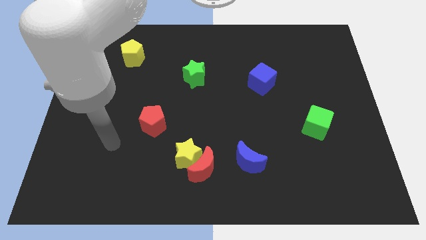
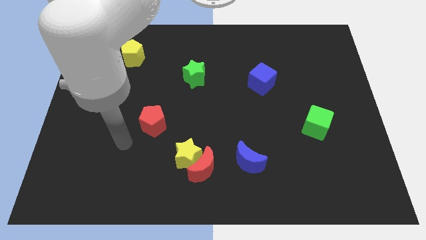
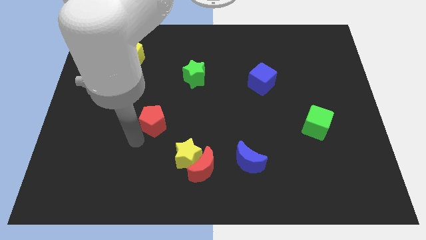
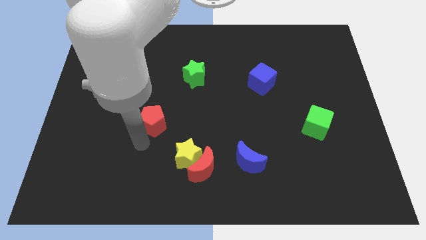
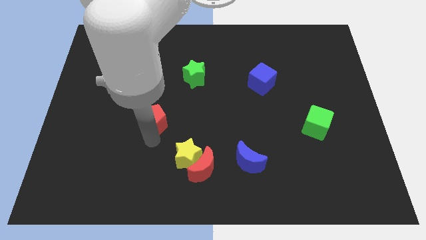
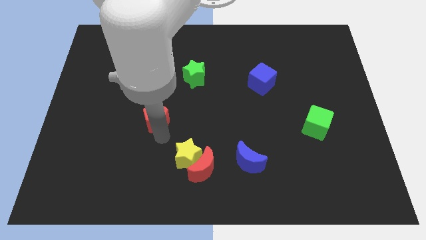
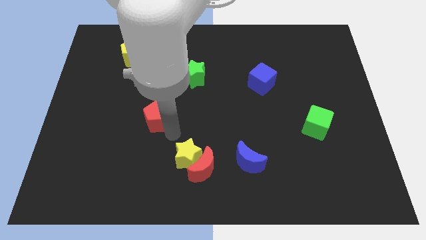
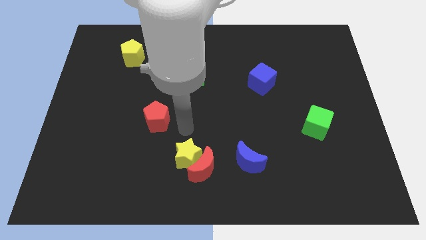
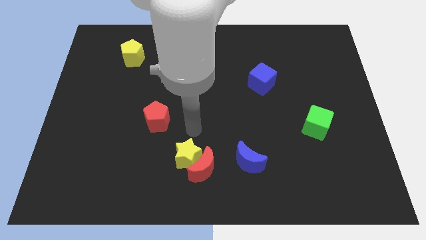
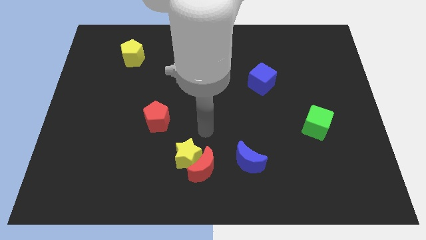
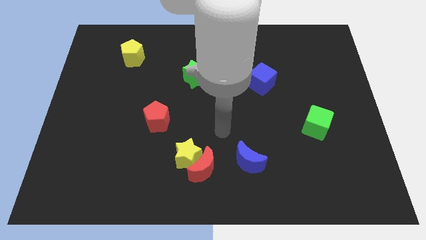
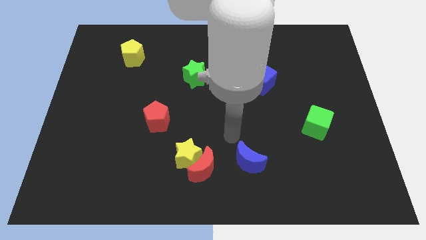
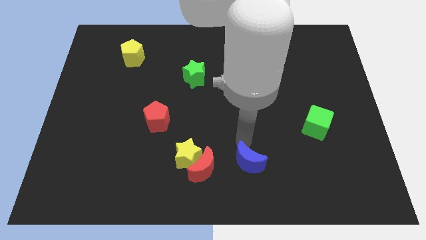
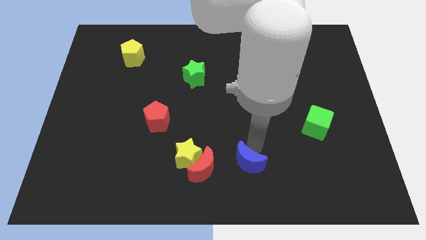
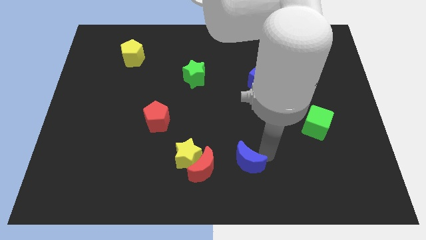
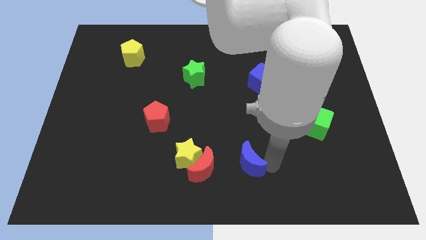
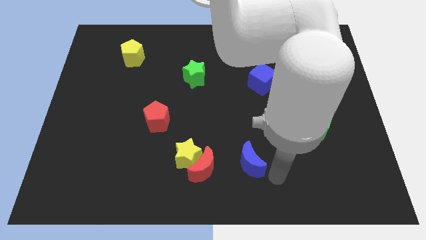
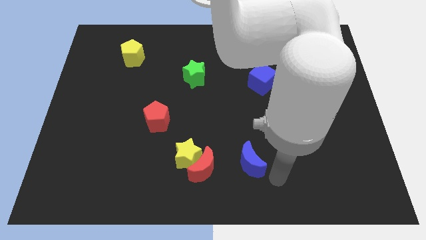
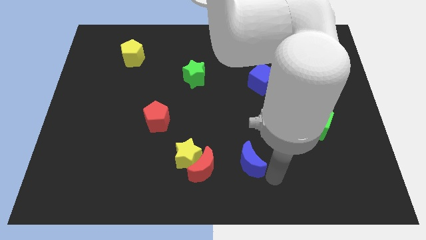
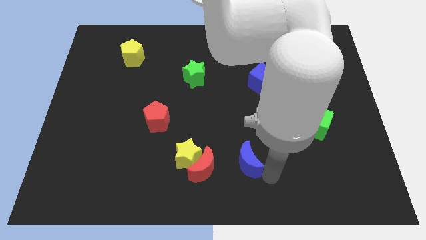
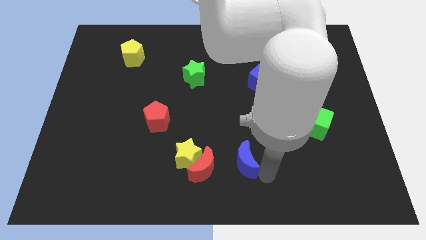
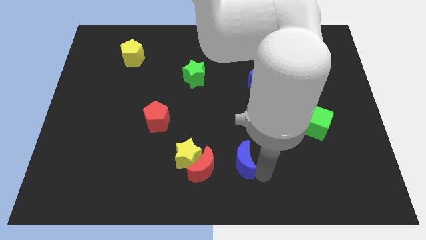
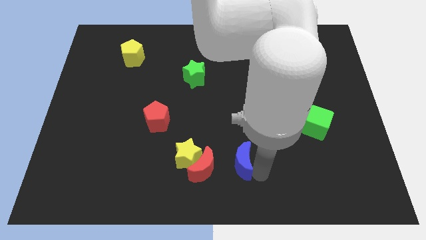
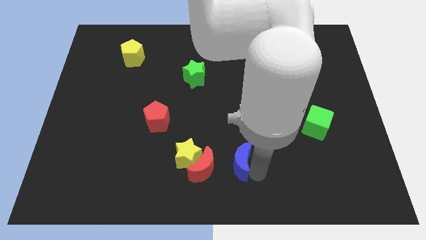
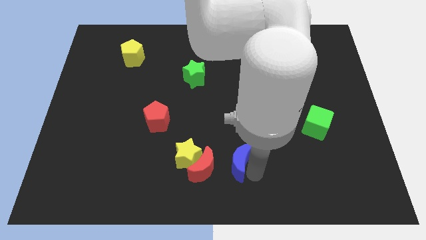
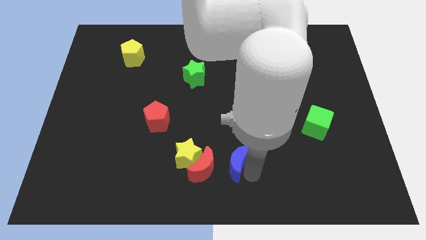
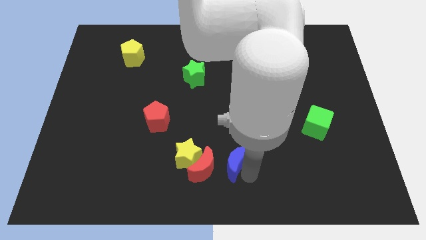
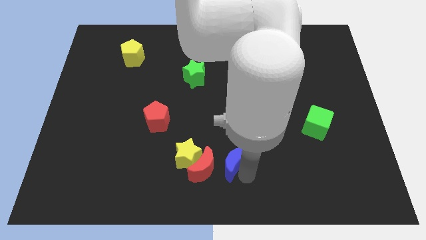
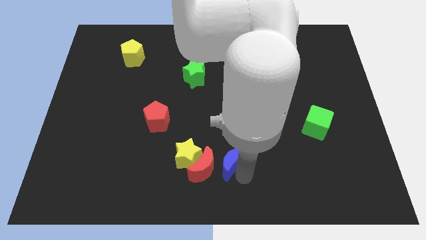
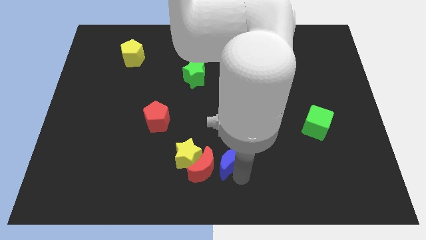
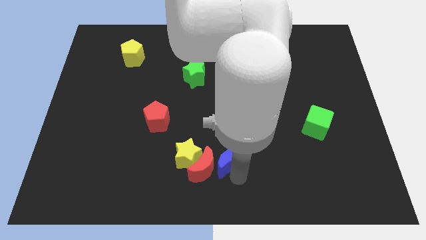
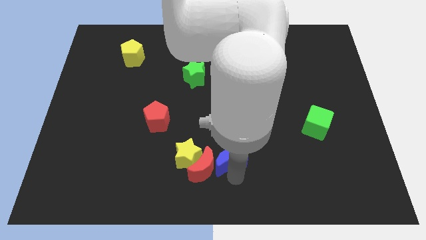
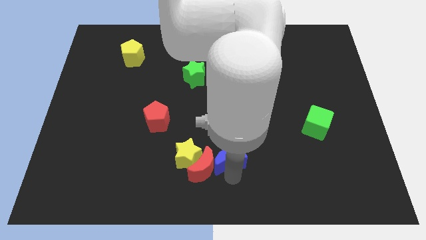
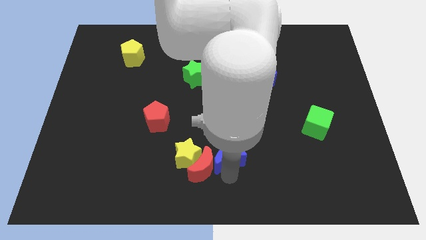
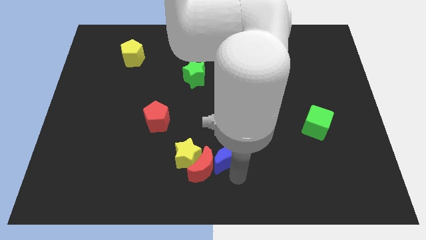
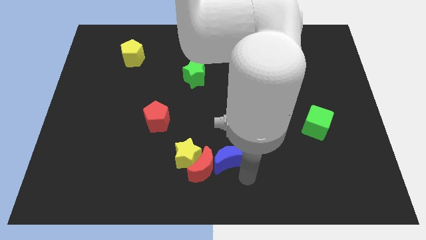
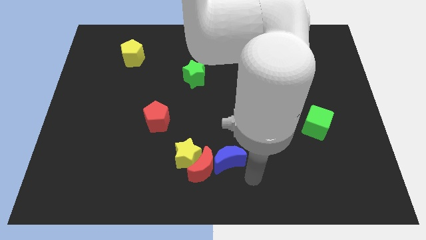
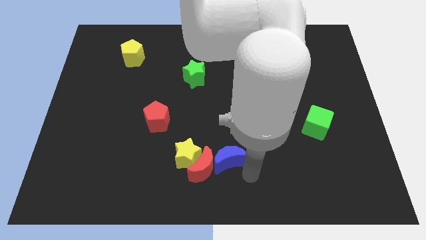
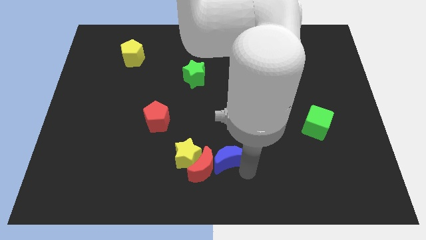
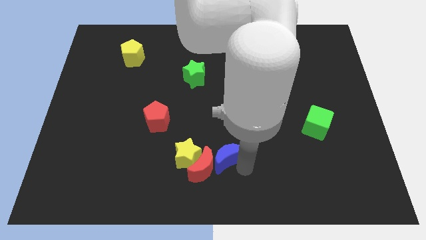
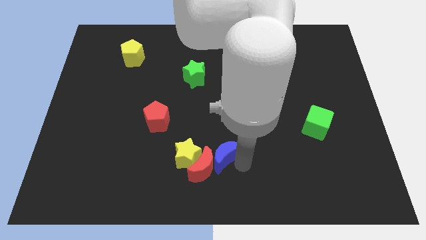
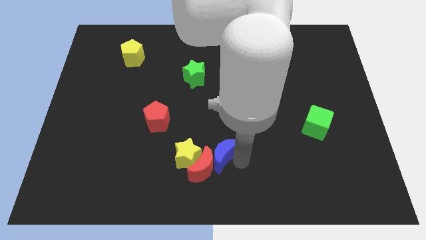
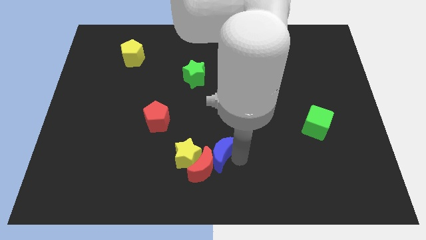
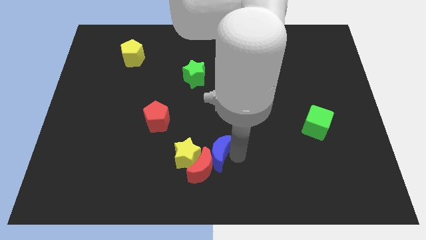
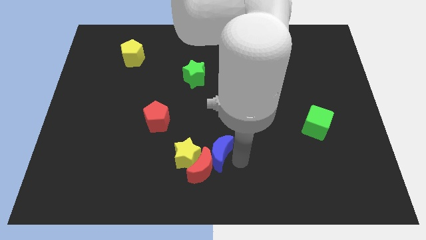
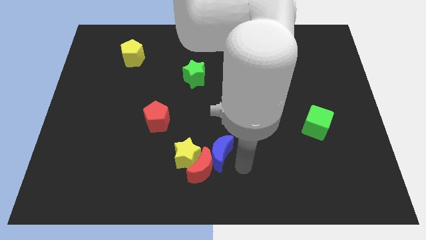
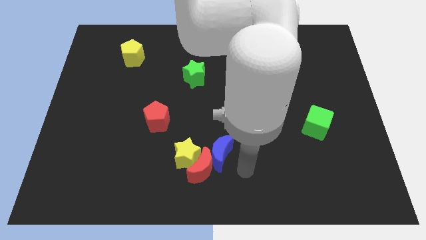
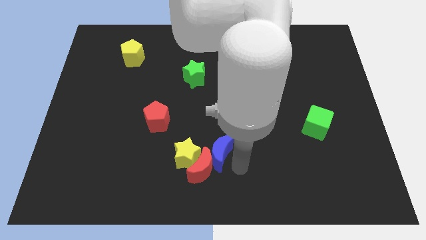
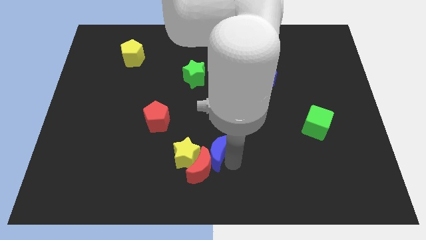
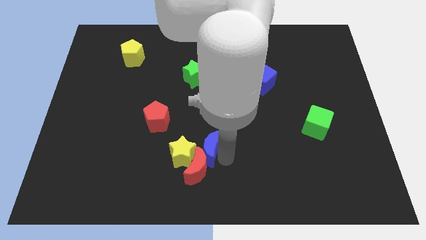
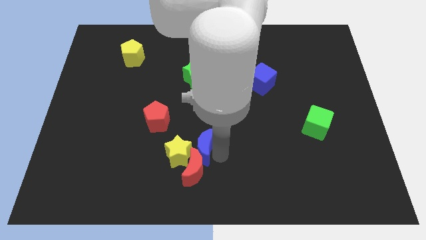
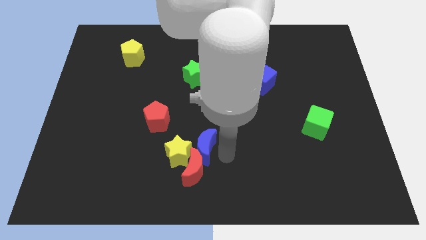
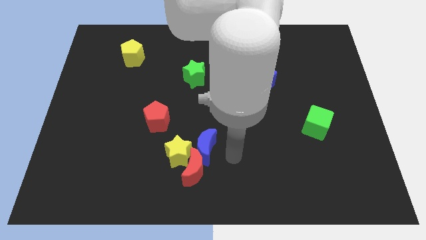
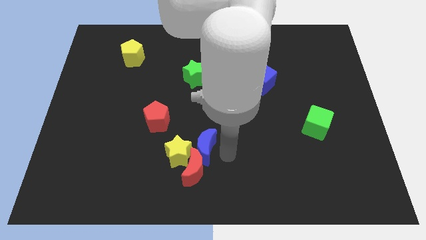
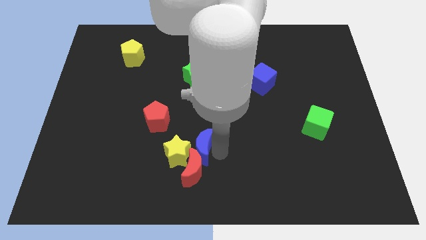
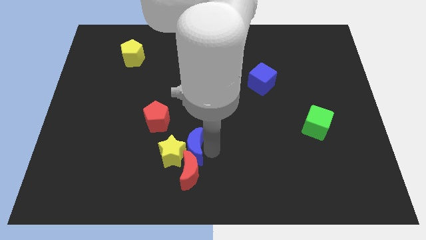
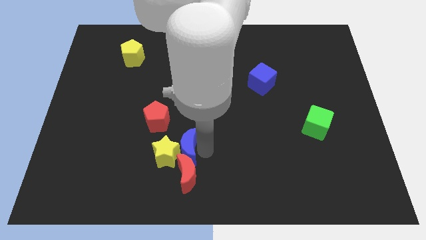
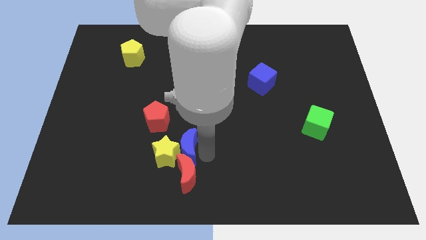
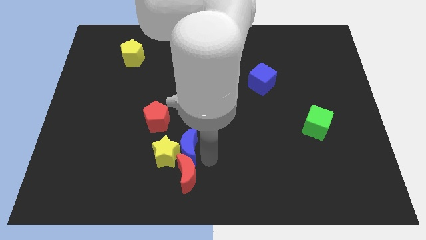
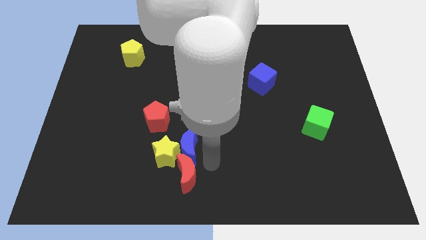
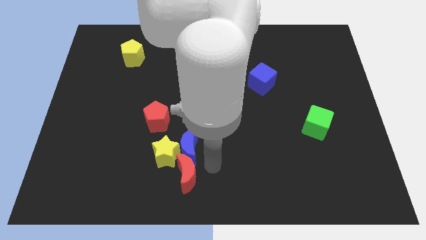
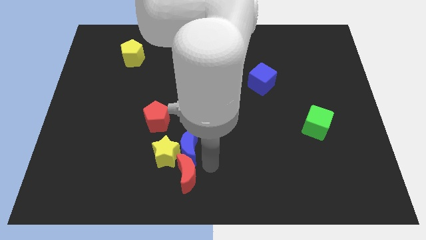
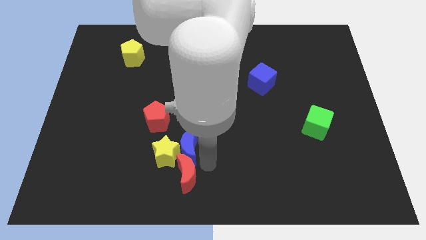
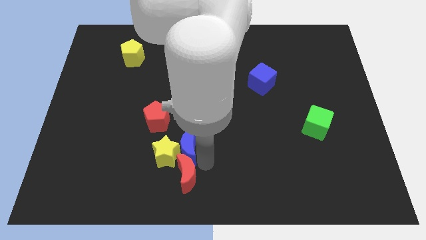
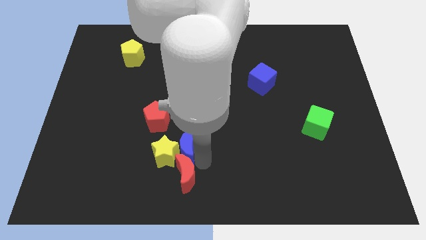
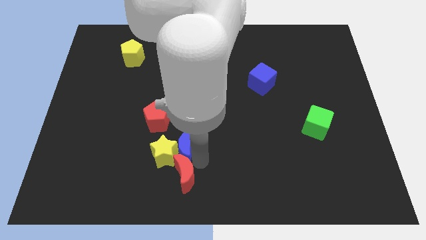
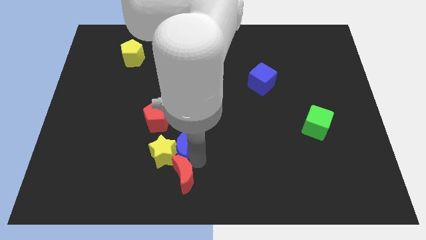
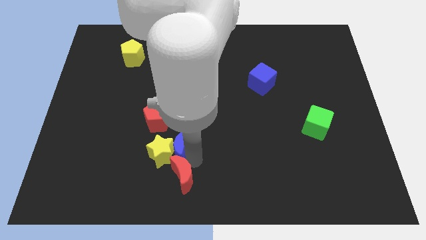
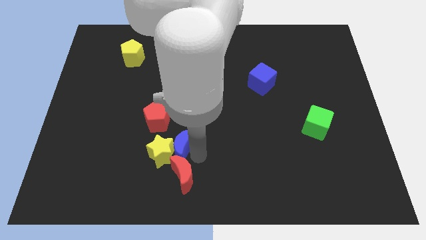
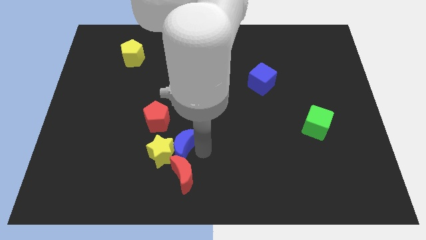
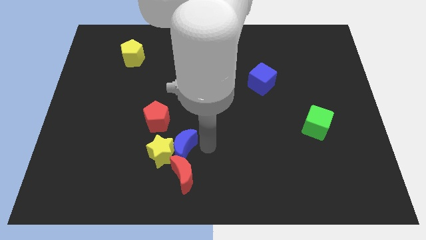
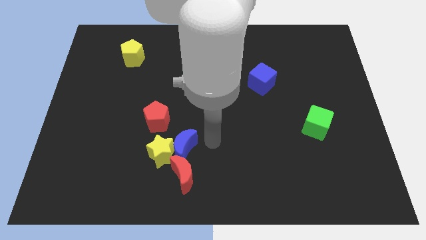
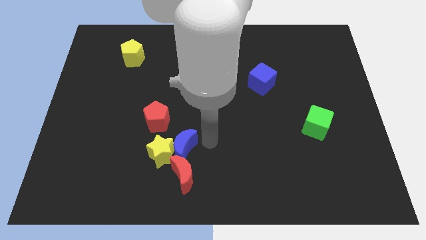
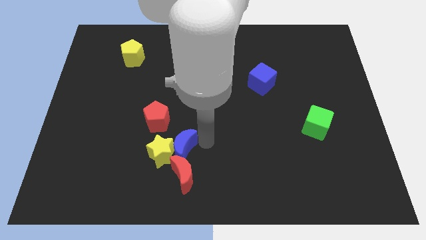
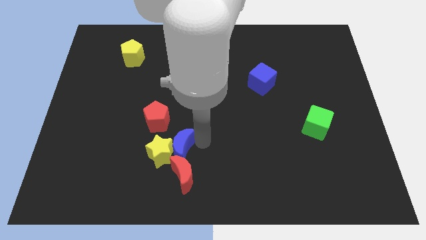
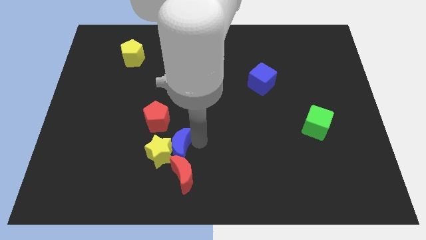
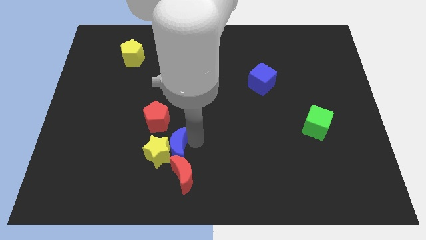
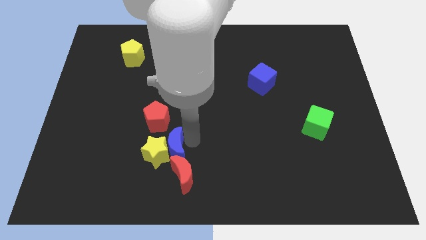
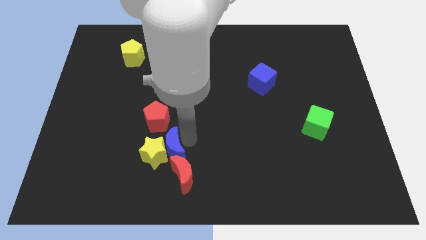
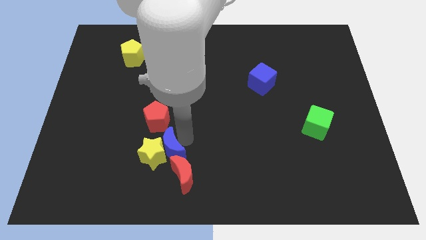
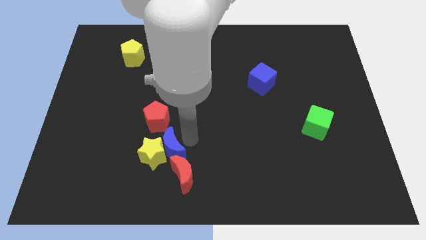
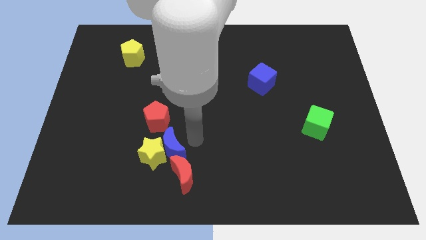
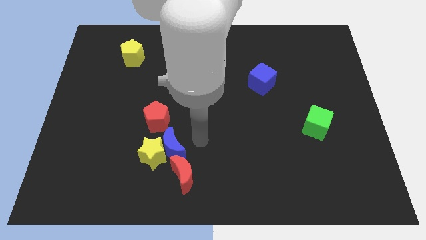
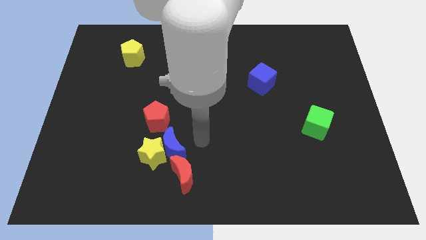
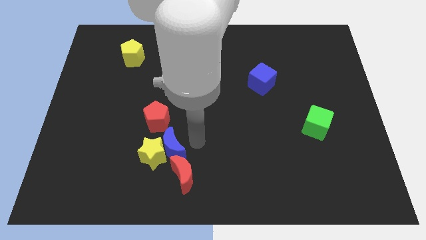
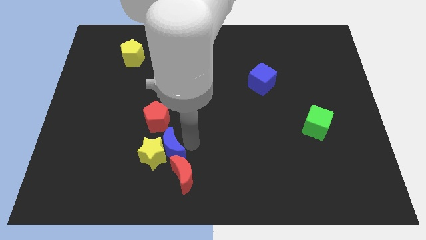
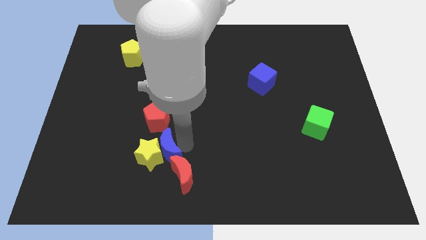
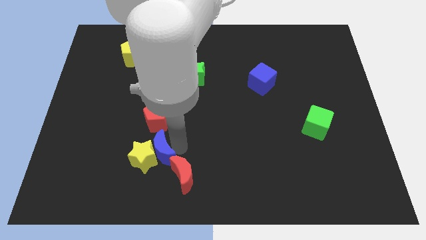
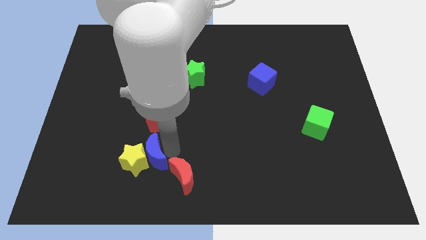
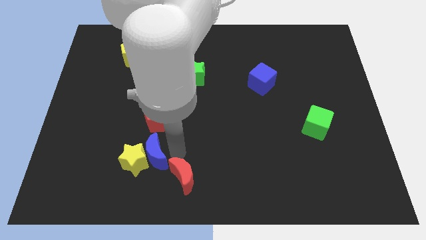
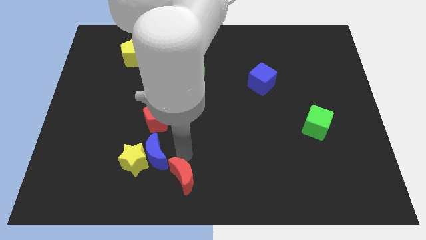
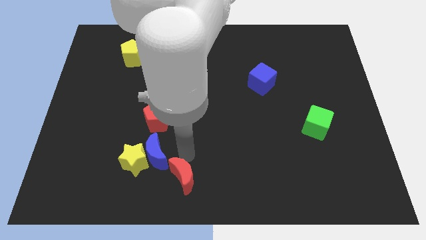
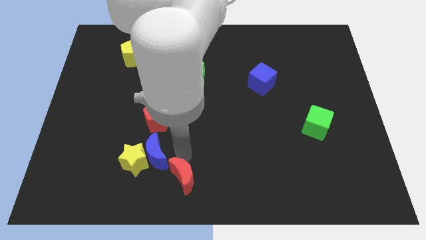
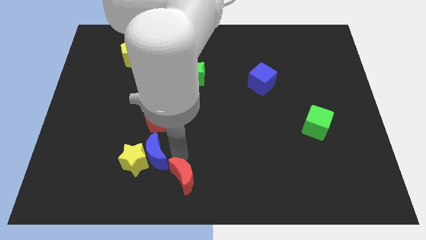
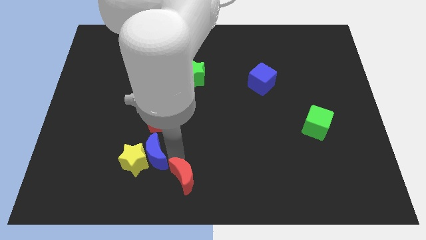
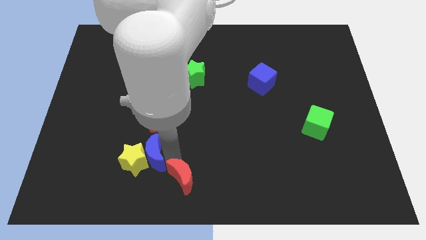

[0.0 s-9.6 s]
move the blue moon left
